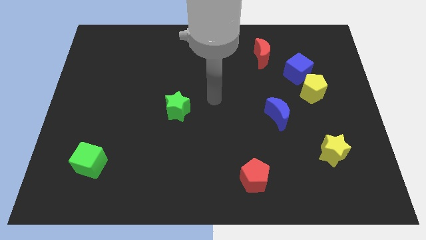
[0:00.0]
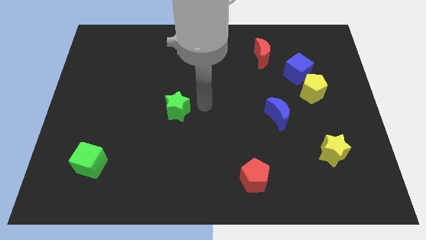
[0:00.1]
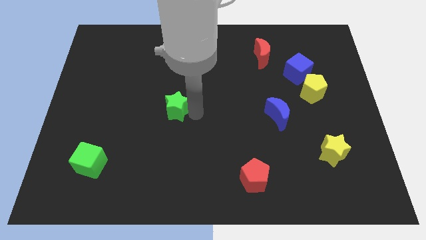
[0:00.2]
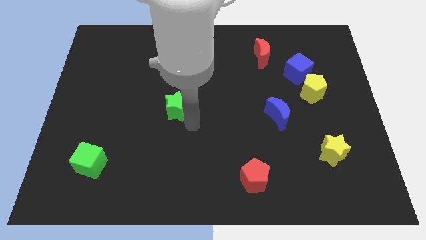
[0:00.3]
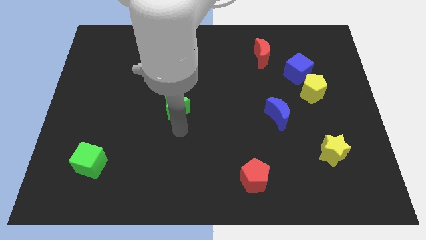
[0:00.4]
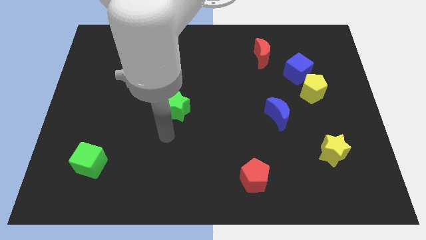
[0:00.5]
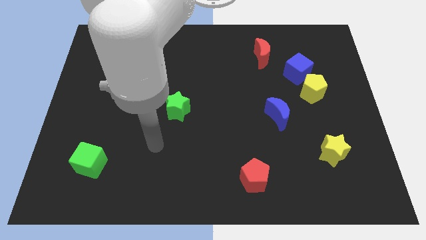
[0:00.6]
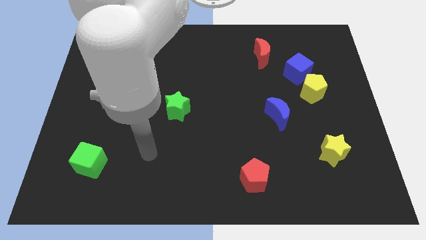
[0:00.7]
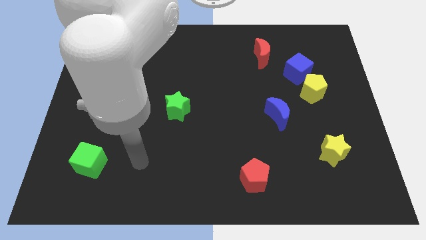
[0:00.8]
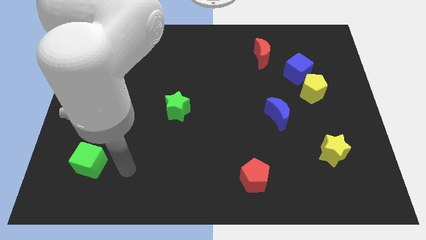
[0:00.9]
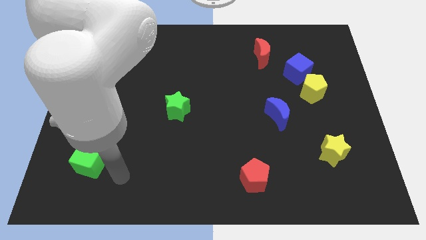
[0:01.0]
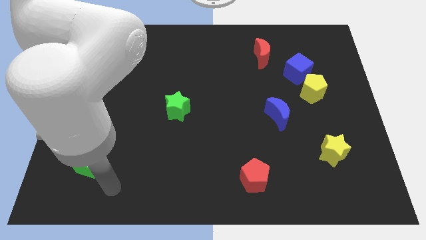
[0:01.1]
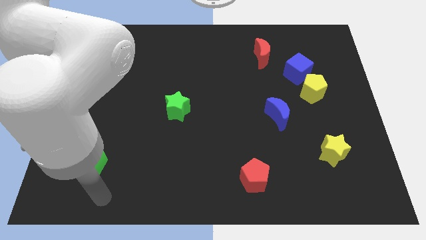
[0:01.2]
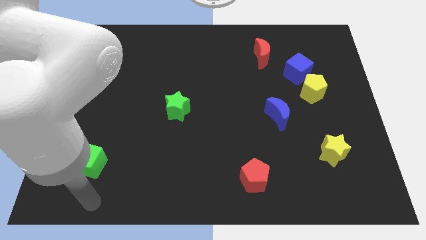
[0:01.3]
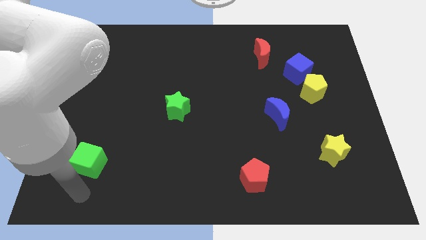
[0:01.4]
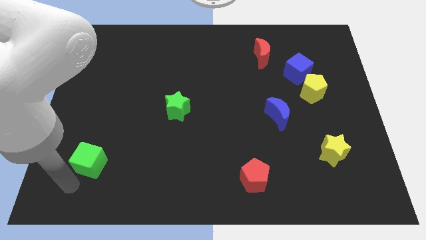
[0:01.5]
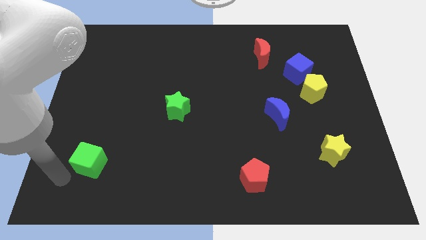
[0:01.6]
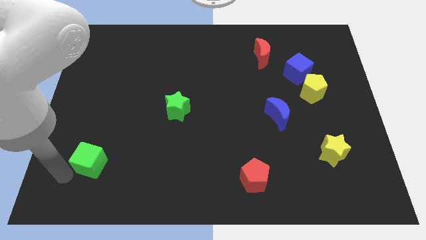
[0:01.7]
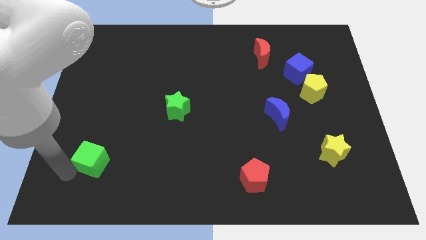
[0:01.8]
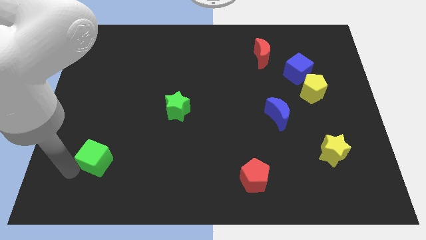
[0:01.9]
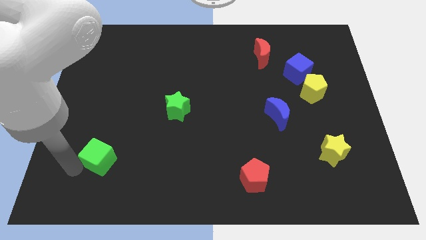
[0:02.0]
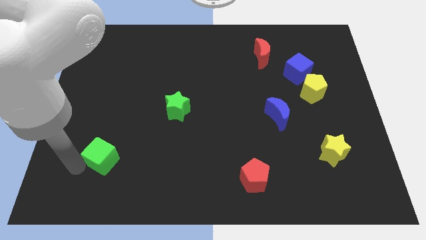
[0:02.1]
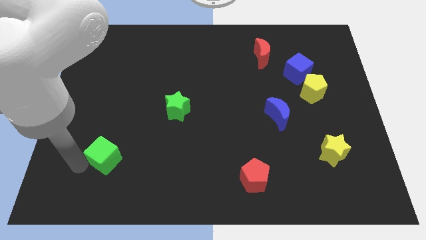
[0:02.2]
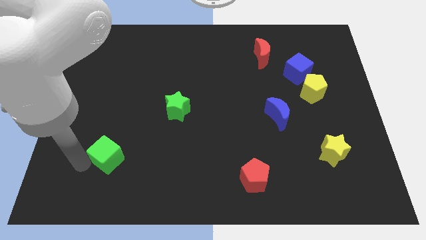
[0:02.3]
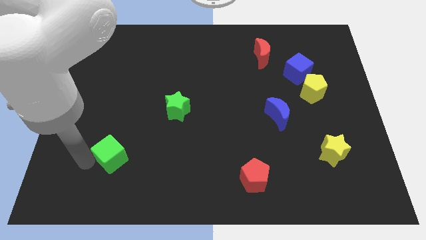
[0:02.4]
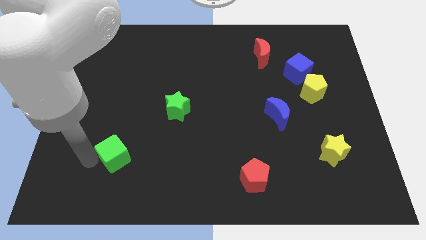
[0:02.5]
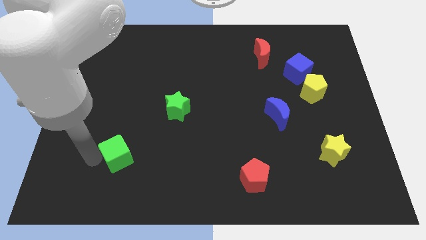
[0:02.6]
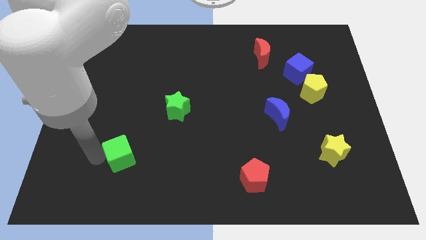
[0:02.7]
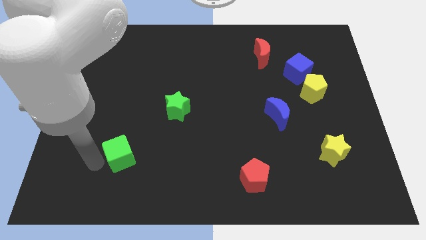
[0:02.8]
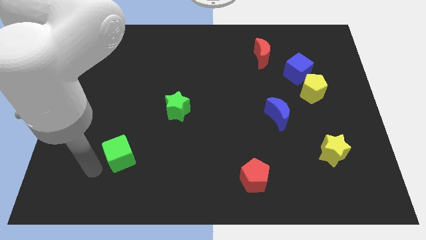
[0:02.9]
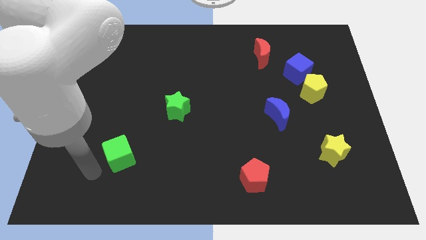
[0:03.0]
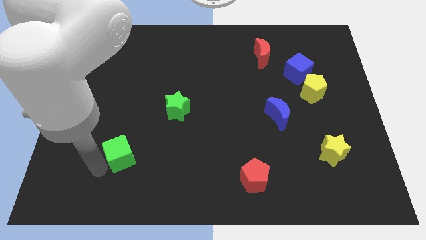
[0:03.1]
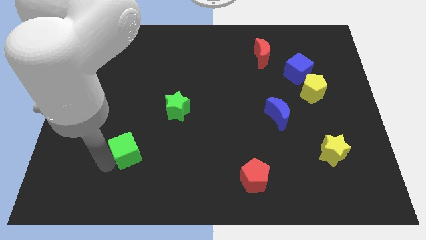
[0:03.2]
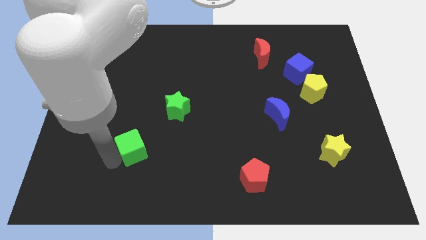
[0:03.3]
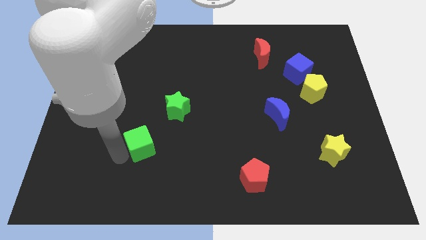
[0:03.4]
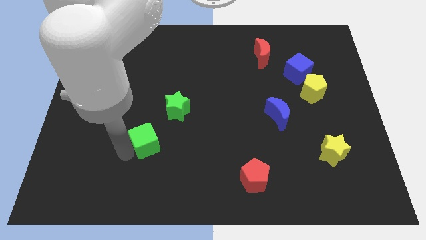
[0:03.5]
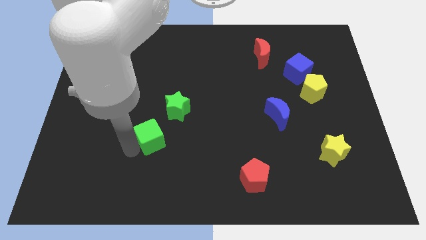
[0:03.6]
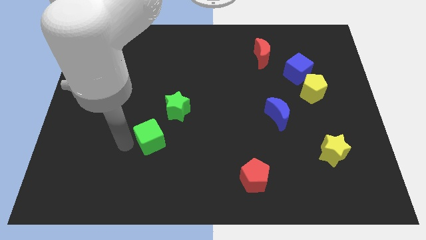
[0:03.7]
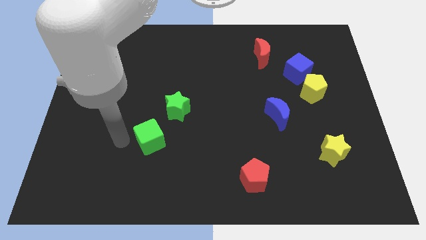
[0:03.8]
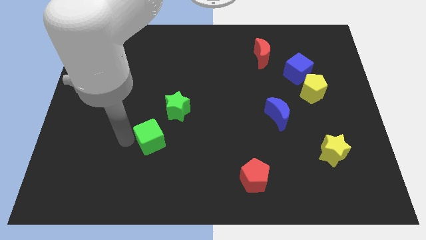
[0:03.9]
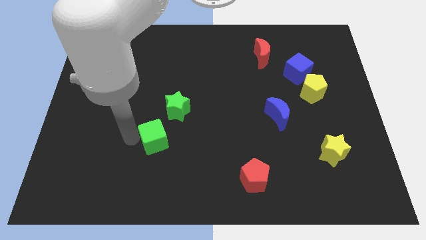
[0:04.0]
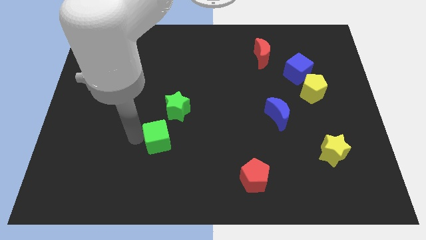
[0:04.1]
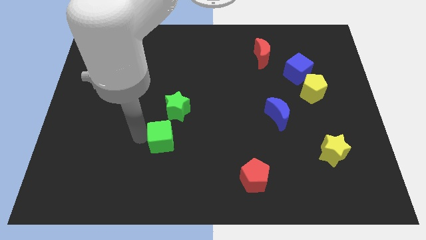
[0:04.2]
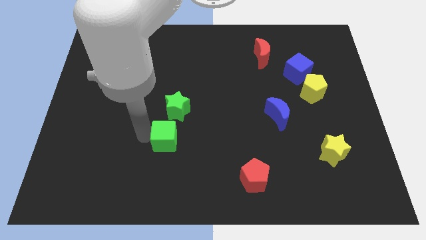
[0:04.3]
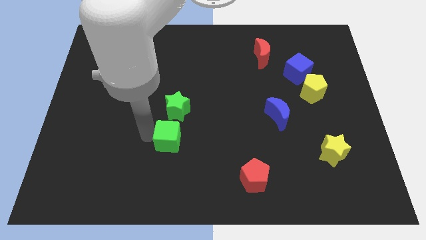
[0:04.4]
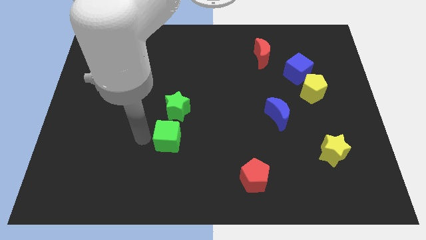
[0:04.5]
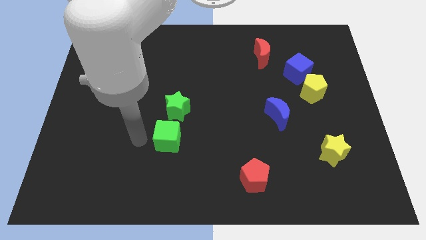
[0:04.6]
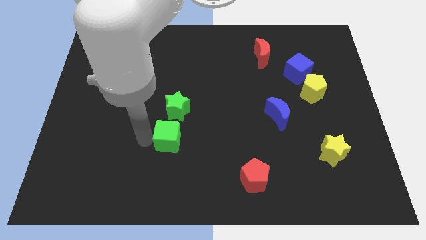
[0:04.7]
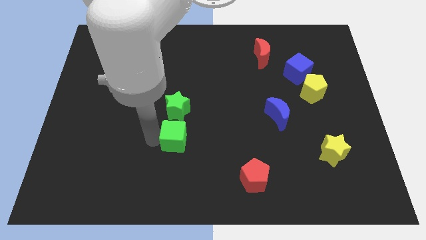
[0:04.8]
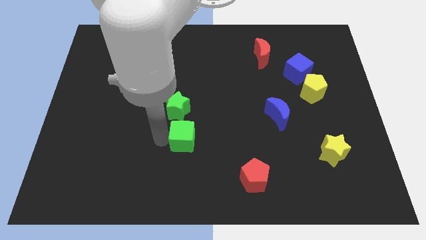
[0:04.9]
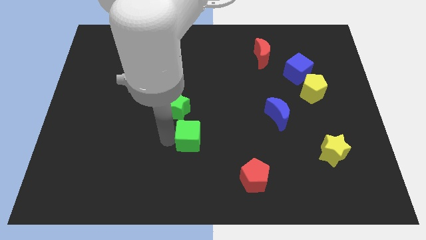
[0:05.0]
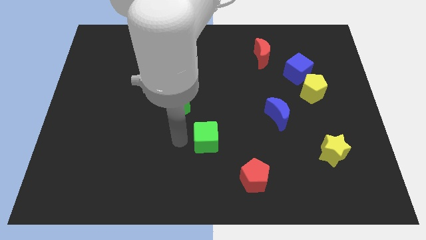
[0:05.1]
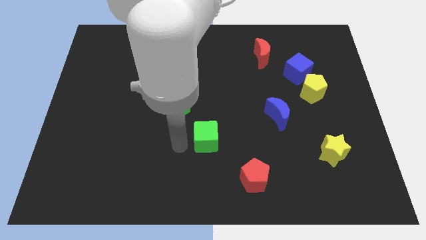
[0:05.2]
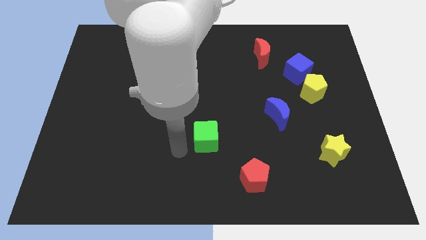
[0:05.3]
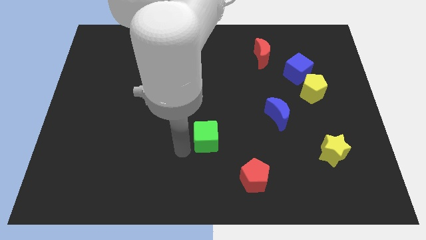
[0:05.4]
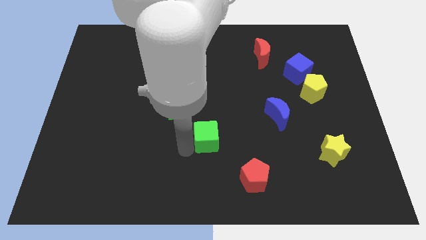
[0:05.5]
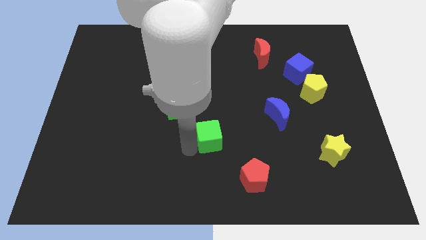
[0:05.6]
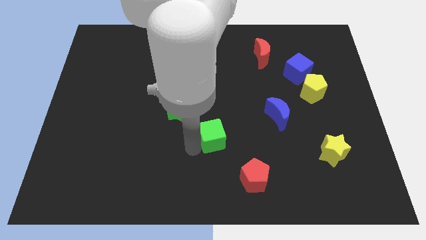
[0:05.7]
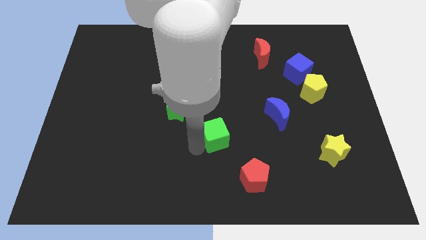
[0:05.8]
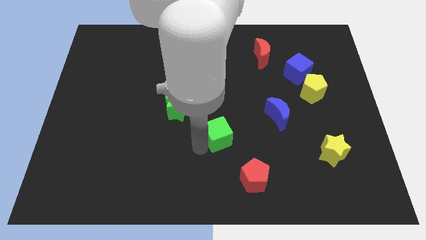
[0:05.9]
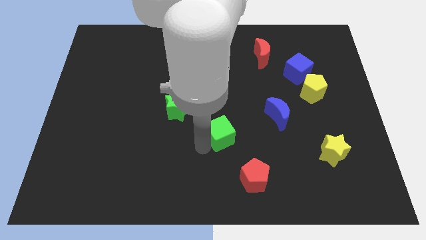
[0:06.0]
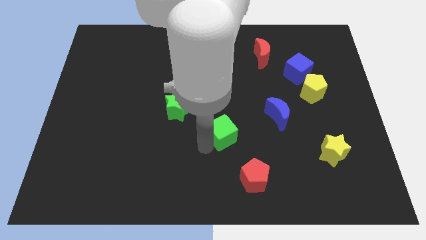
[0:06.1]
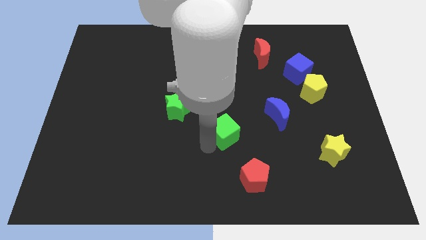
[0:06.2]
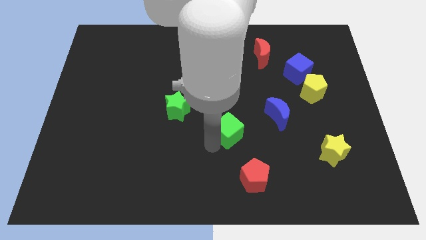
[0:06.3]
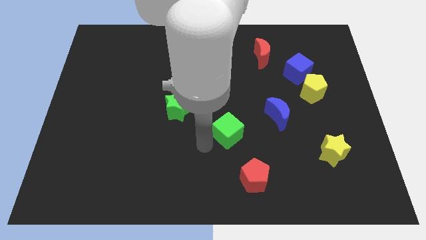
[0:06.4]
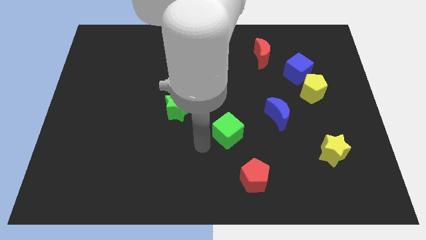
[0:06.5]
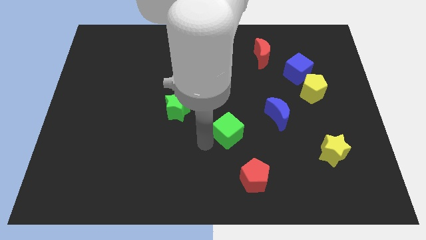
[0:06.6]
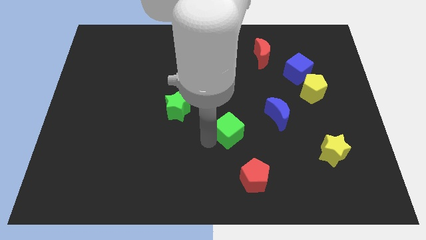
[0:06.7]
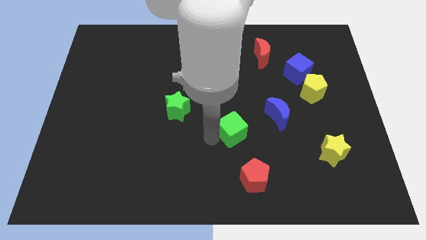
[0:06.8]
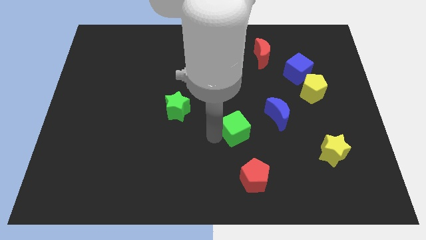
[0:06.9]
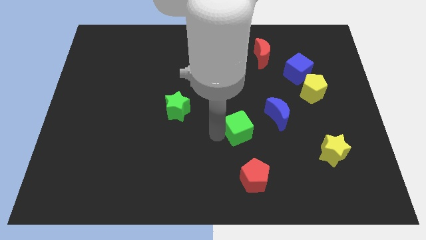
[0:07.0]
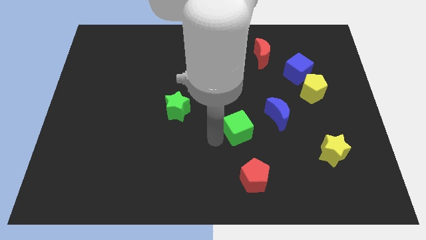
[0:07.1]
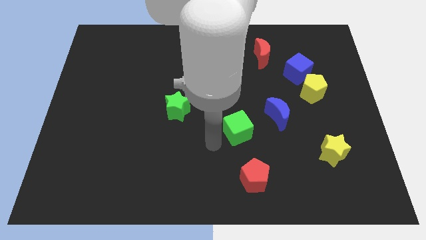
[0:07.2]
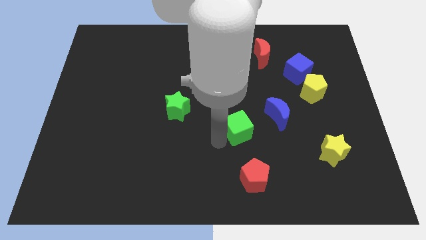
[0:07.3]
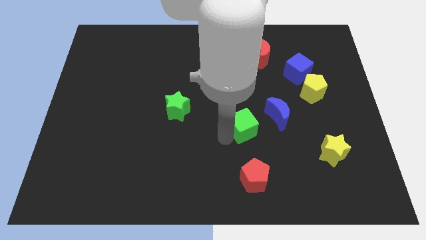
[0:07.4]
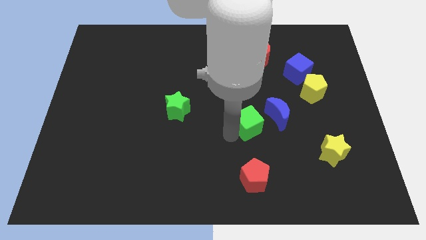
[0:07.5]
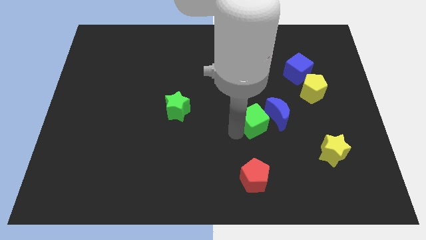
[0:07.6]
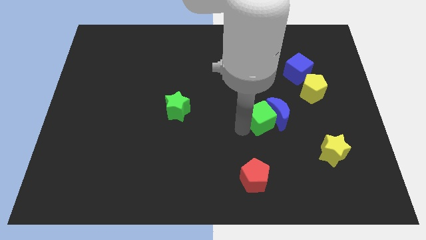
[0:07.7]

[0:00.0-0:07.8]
push the green cube to the blue moon
